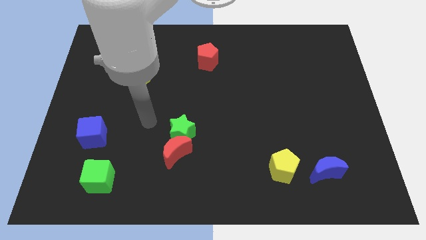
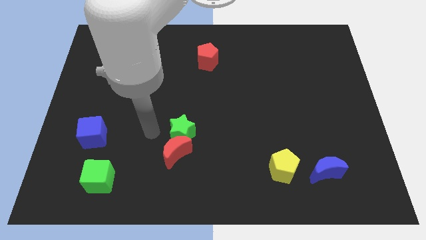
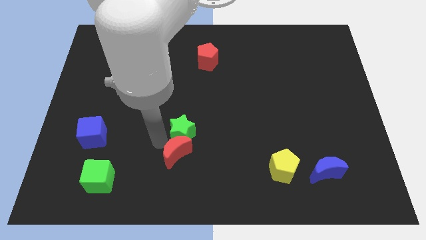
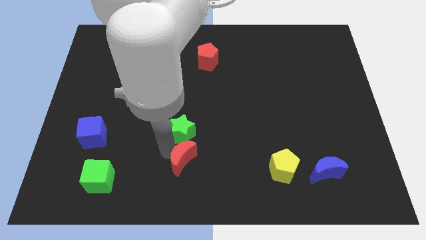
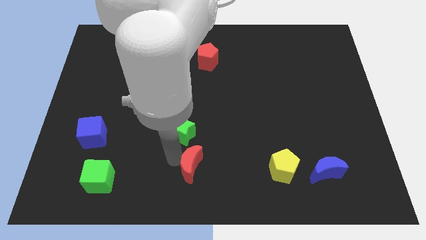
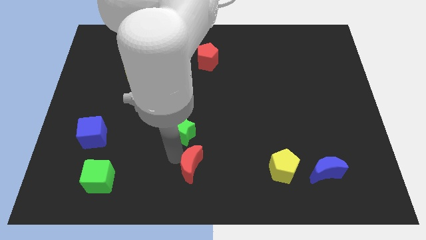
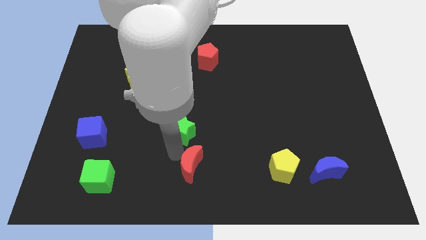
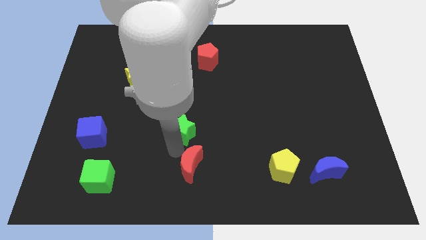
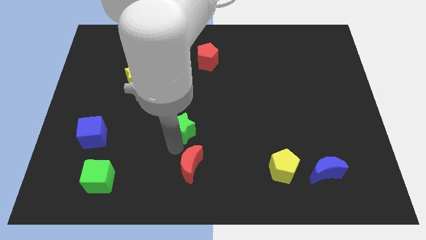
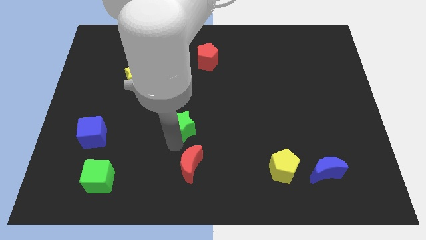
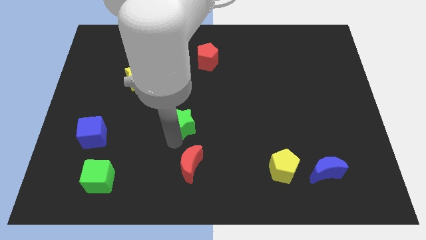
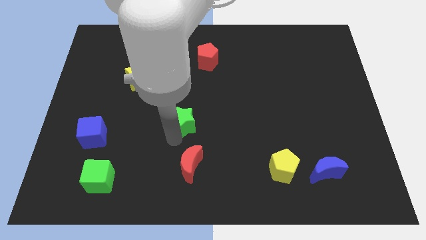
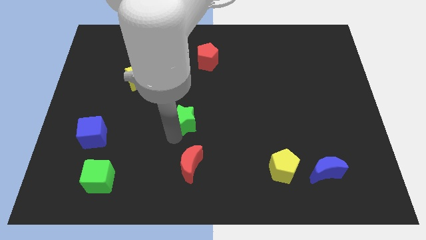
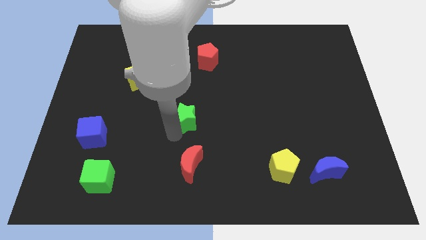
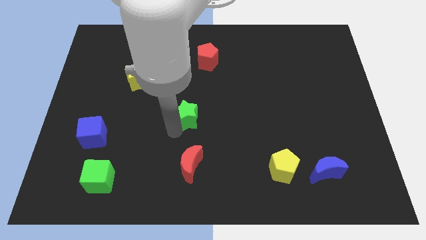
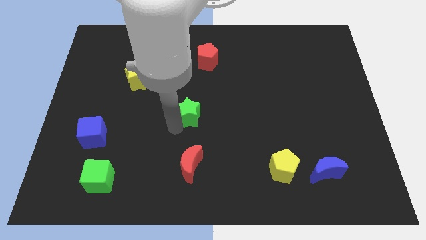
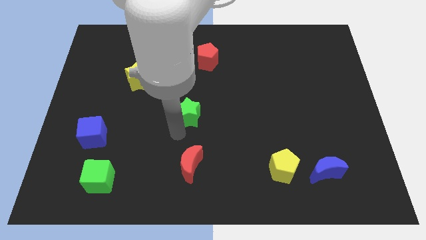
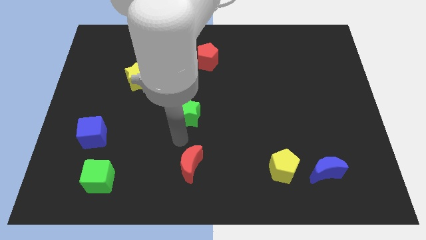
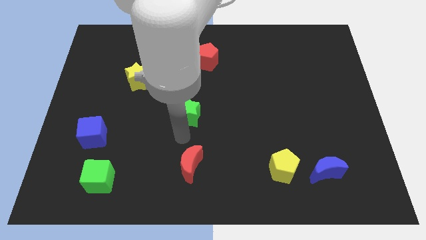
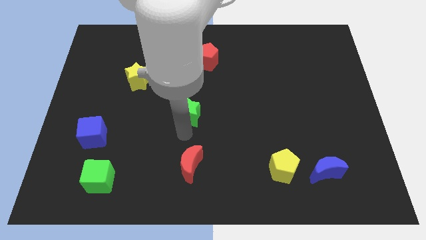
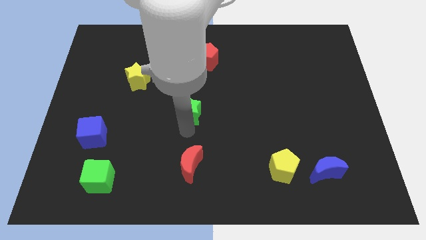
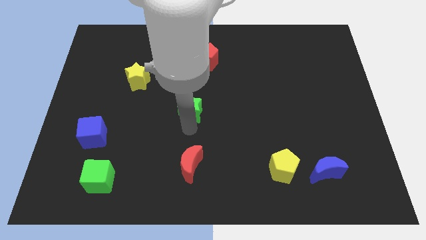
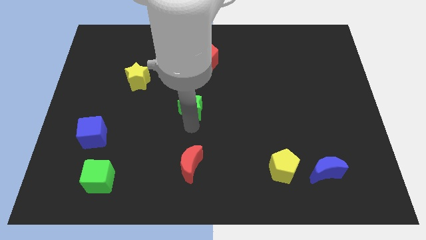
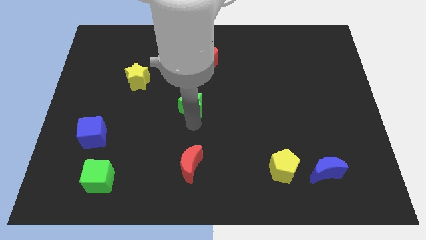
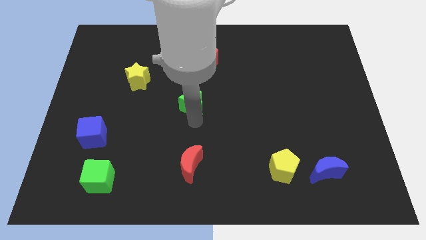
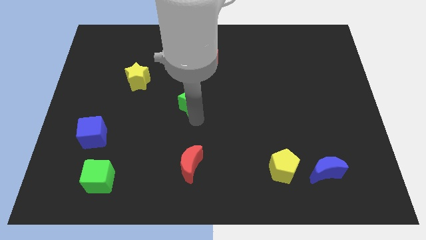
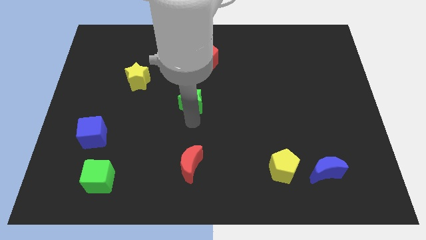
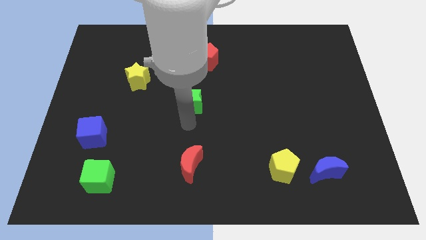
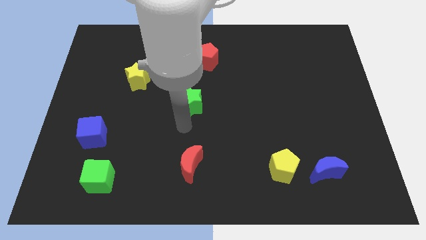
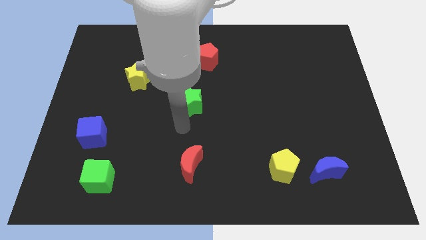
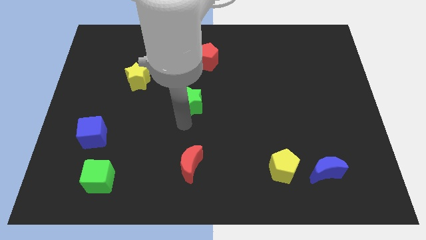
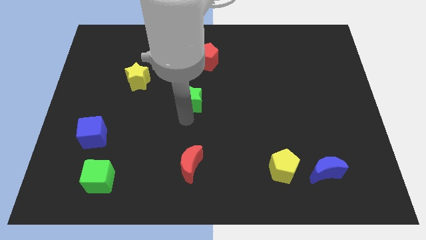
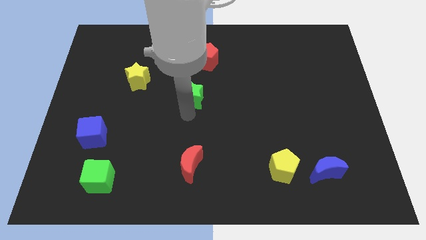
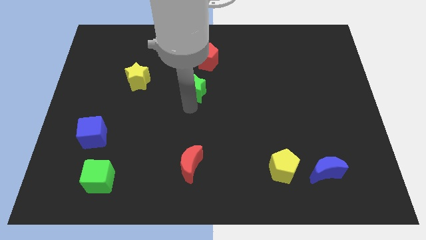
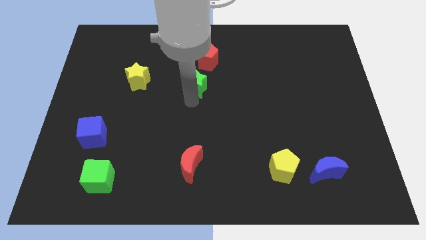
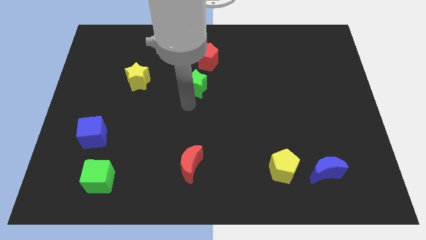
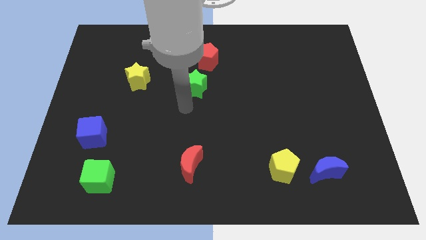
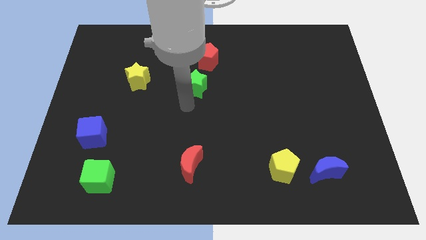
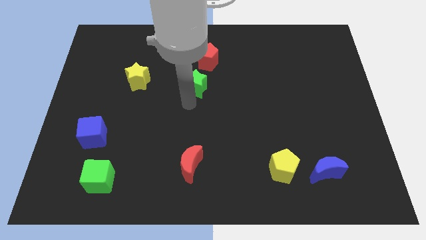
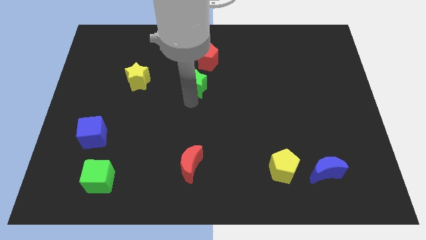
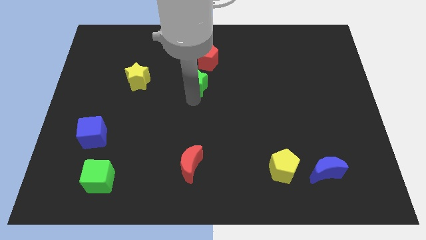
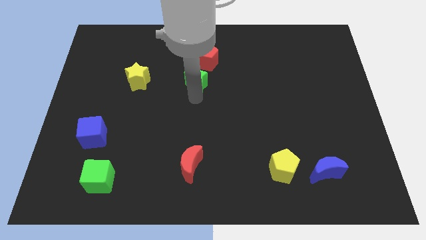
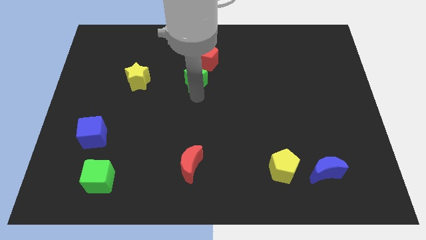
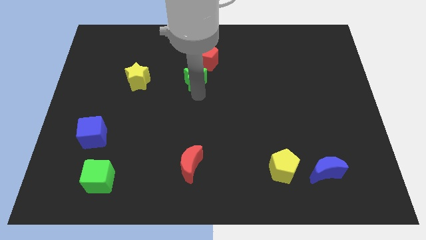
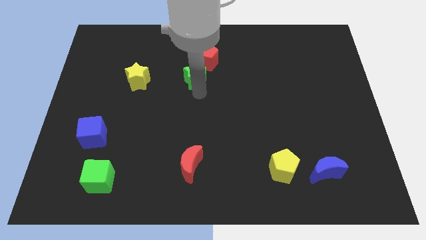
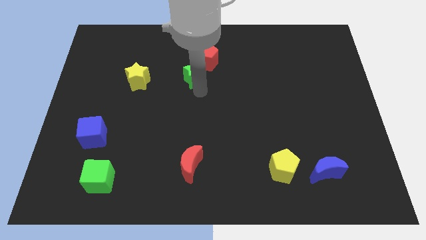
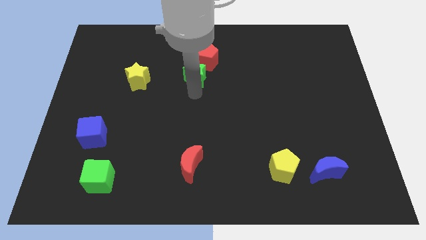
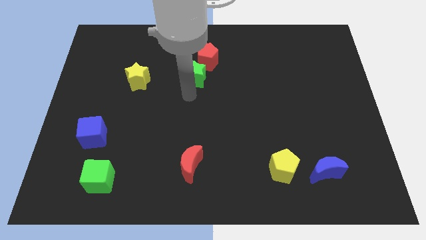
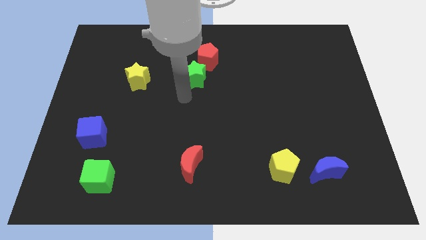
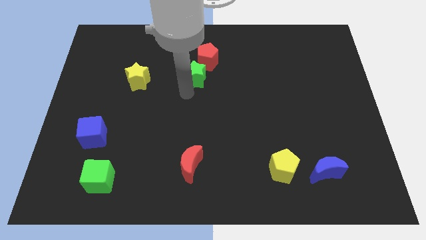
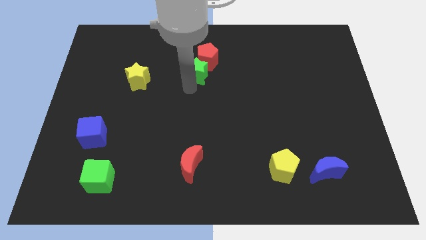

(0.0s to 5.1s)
put the green star close to the red pentagon

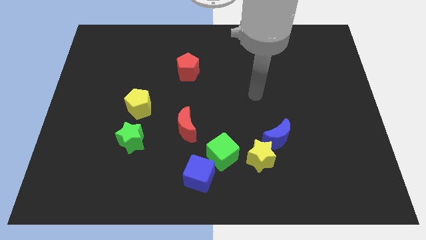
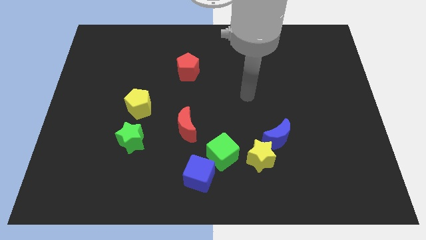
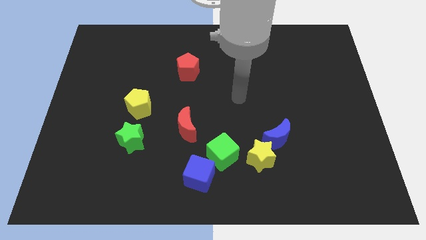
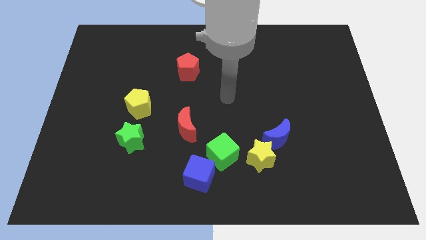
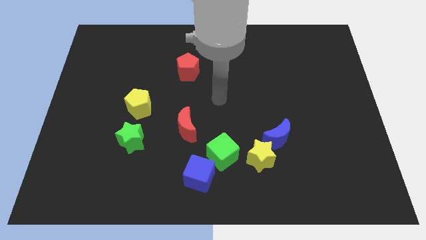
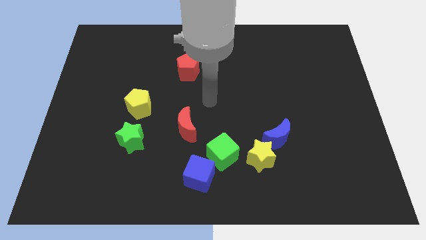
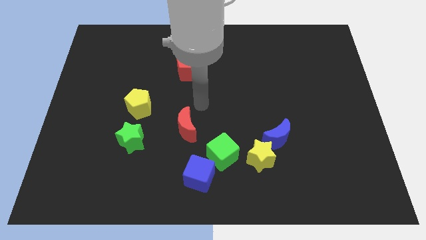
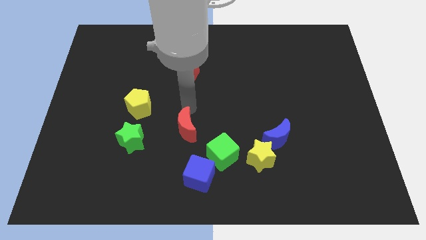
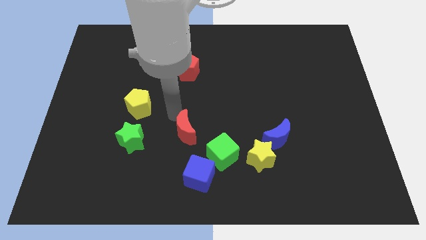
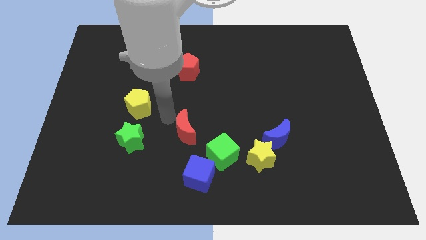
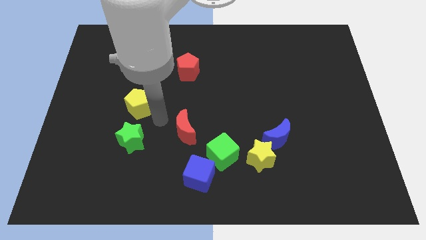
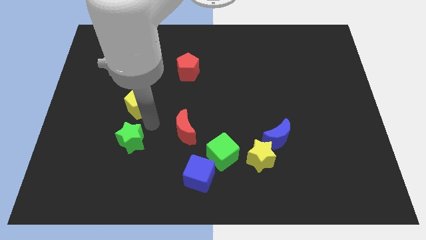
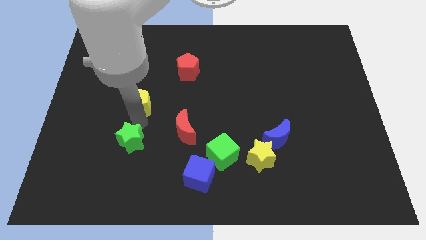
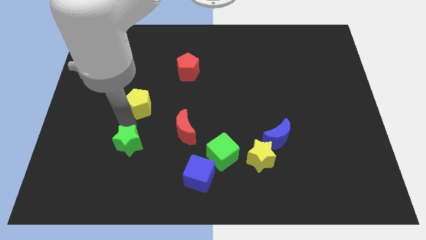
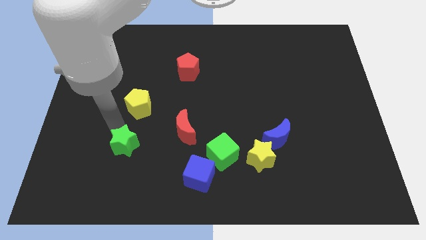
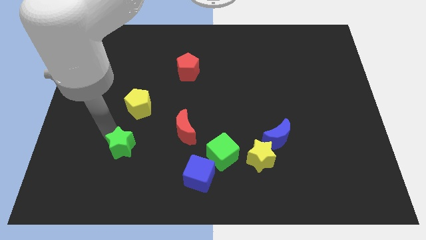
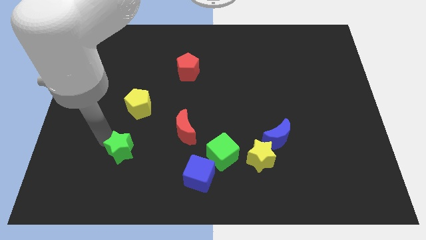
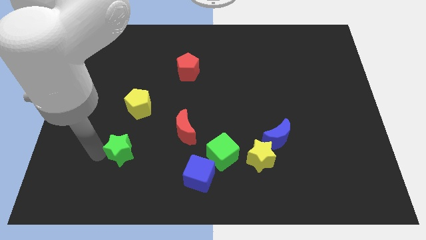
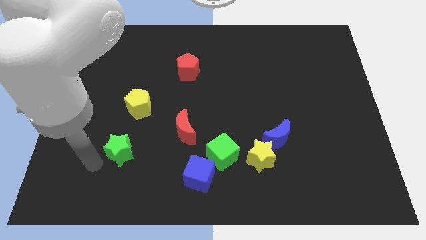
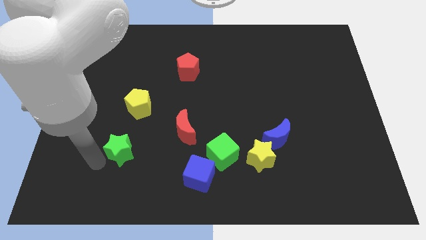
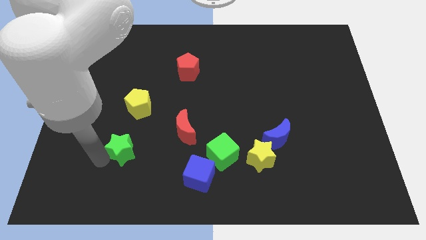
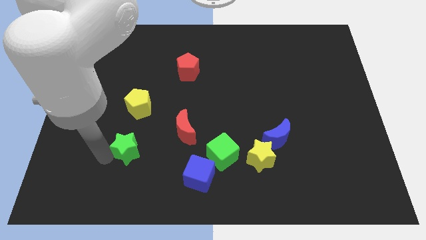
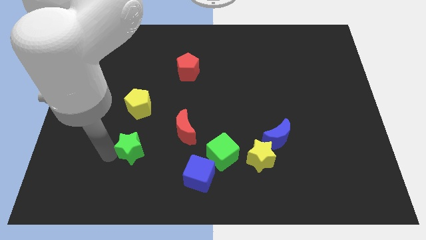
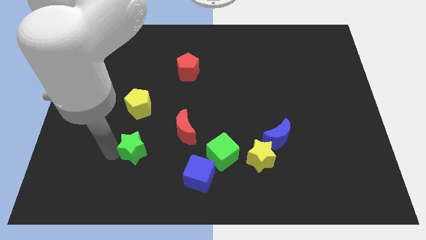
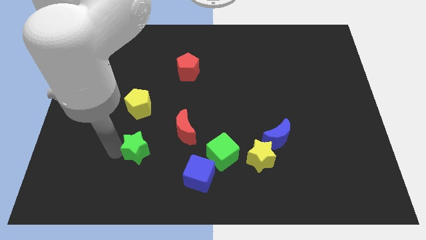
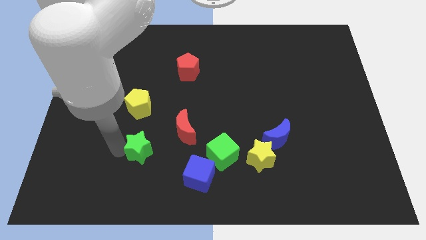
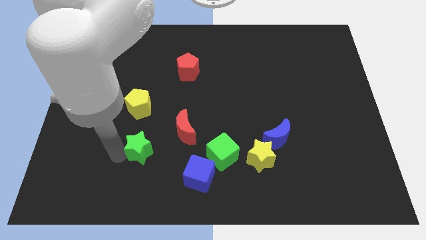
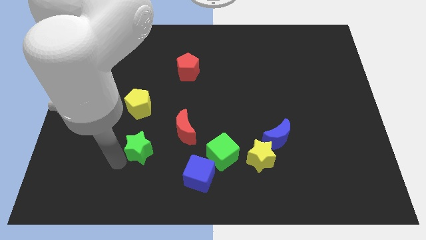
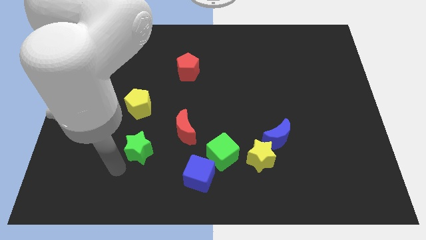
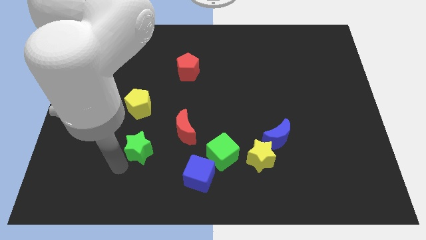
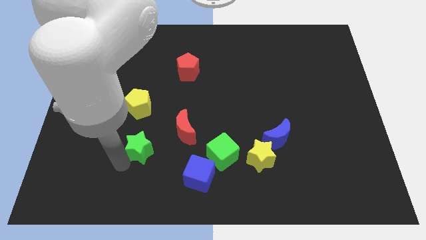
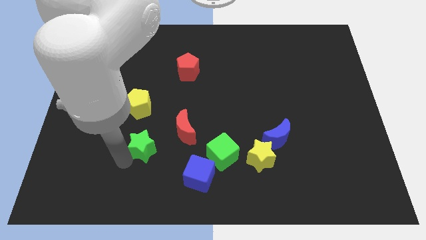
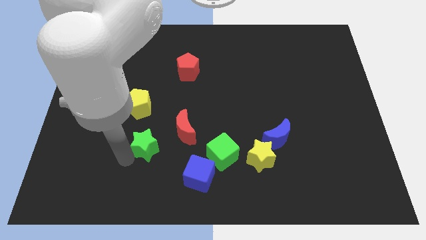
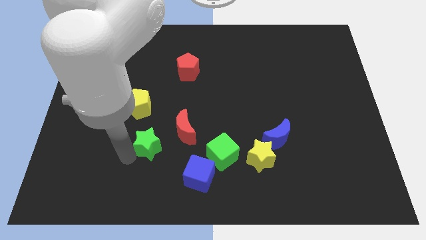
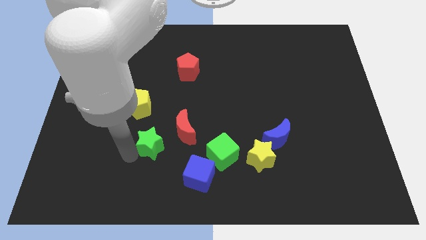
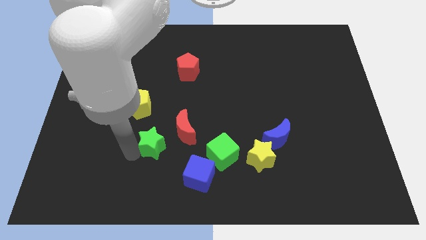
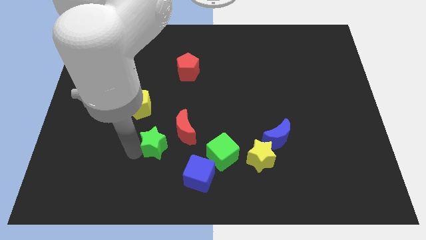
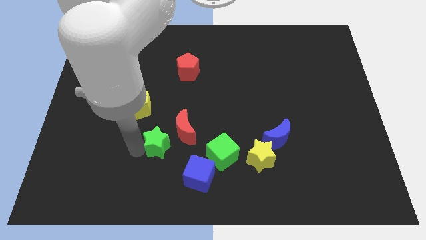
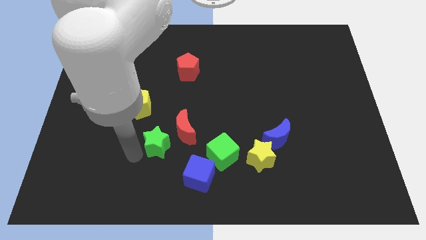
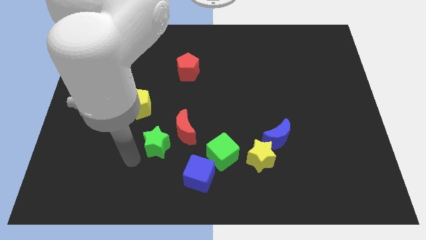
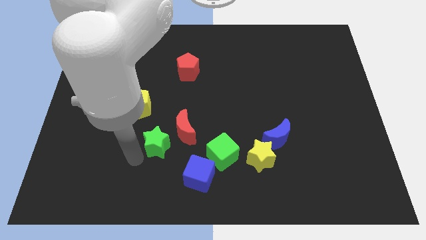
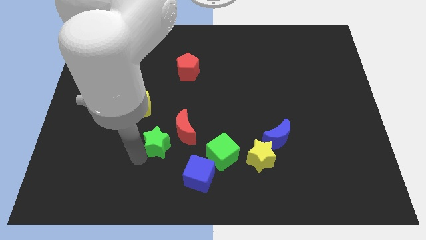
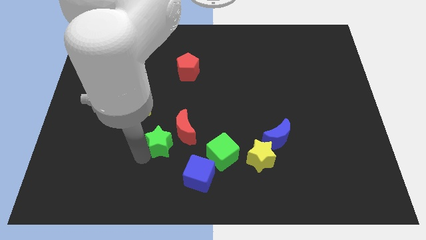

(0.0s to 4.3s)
move the green star close to the red moon
